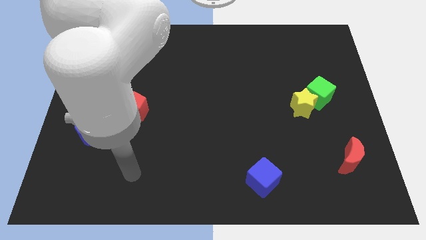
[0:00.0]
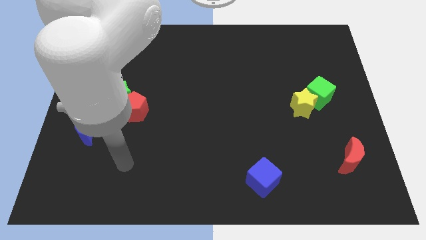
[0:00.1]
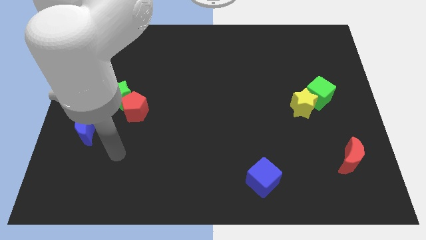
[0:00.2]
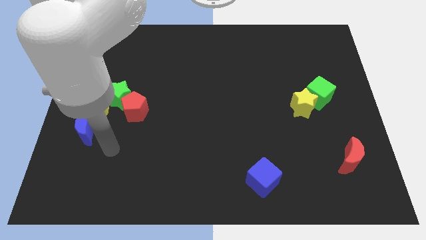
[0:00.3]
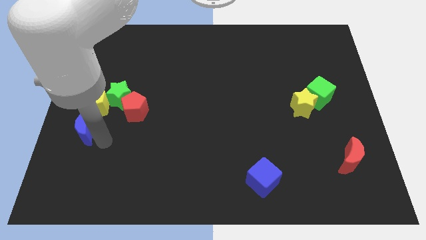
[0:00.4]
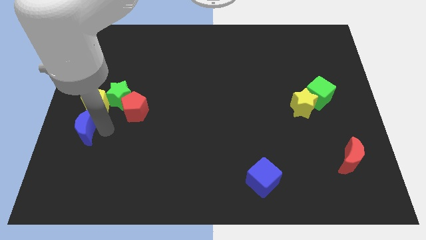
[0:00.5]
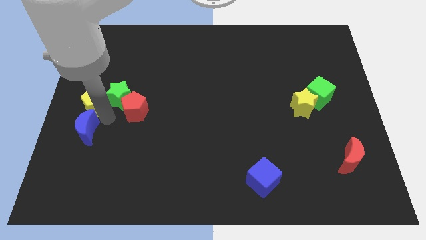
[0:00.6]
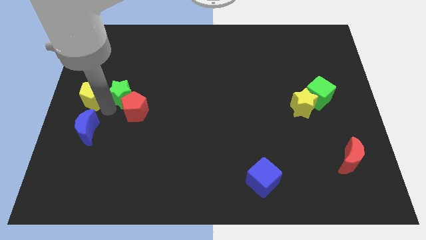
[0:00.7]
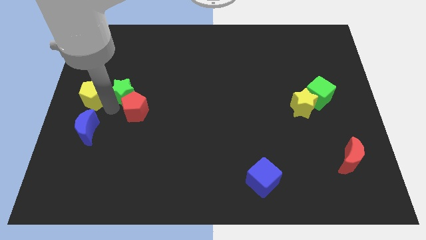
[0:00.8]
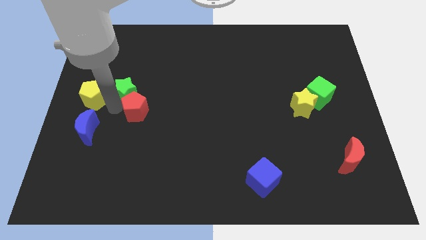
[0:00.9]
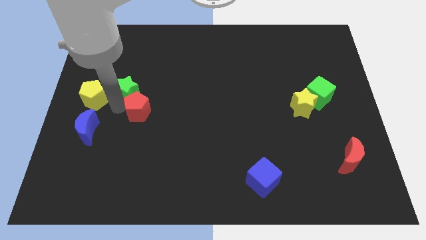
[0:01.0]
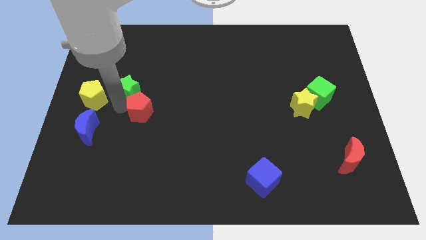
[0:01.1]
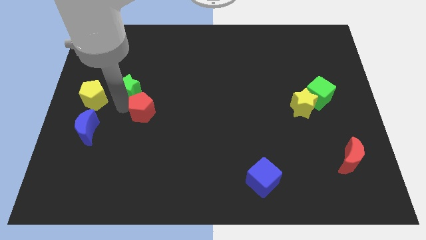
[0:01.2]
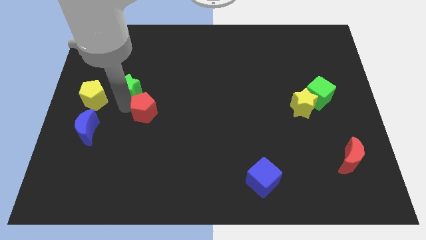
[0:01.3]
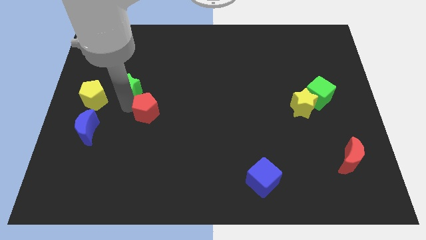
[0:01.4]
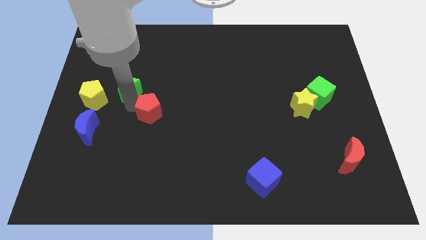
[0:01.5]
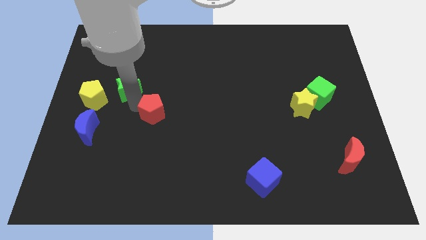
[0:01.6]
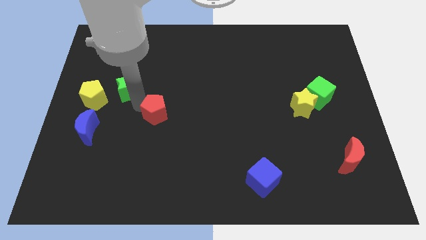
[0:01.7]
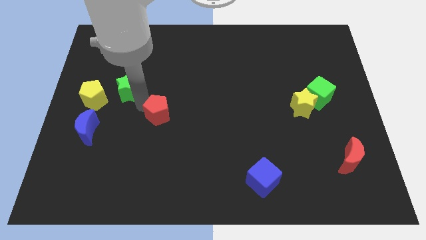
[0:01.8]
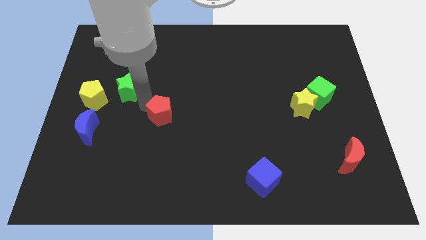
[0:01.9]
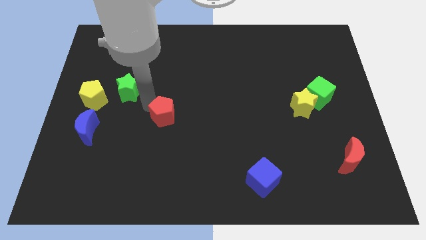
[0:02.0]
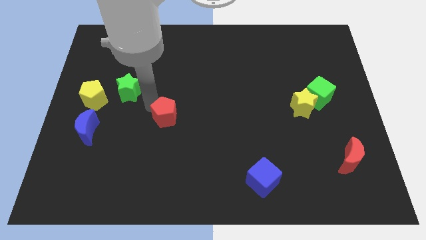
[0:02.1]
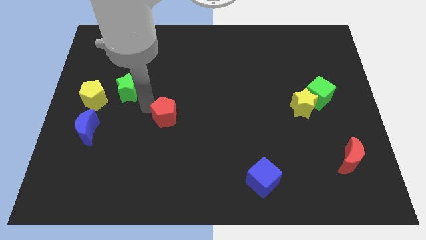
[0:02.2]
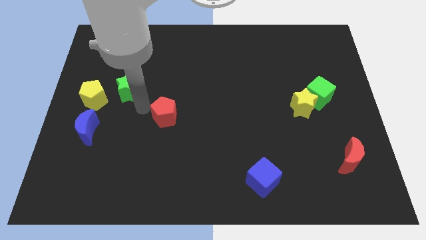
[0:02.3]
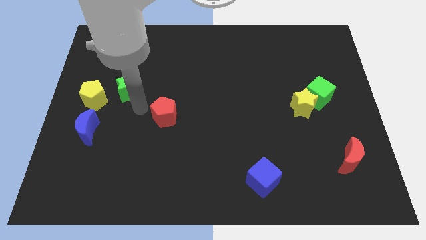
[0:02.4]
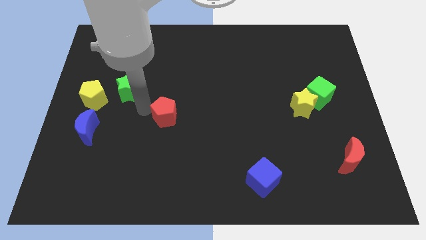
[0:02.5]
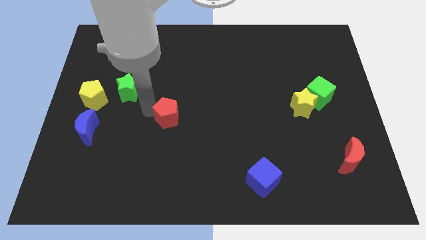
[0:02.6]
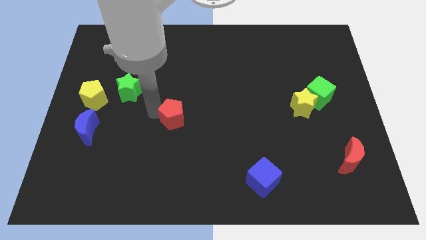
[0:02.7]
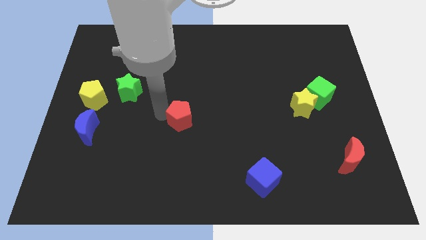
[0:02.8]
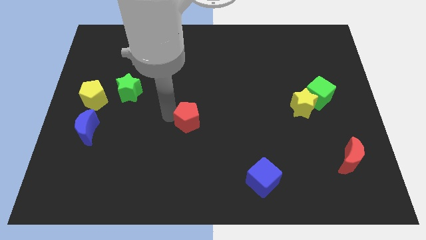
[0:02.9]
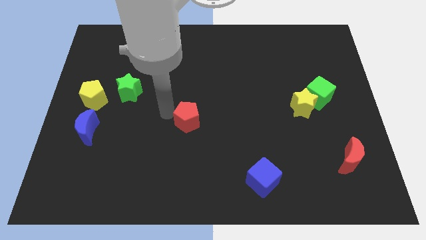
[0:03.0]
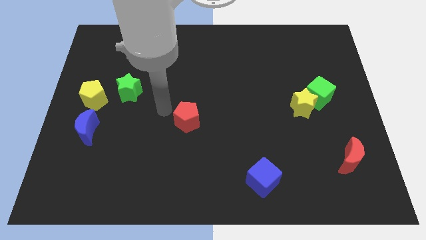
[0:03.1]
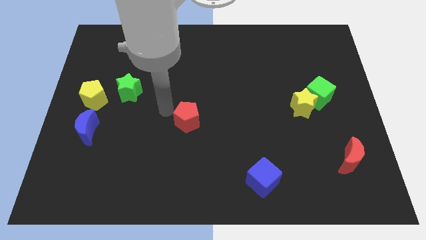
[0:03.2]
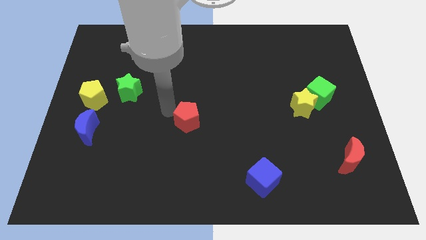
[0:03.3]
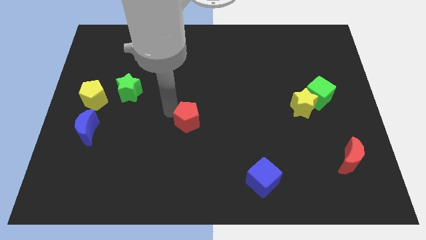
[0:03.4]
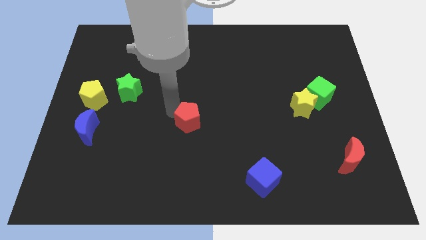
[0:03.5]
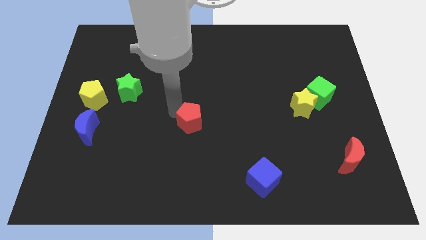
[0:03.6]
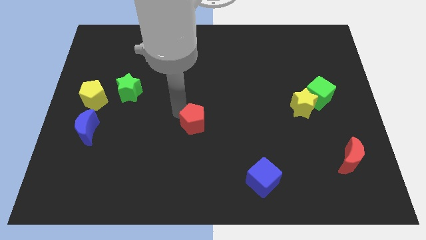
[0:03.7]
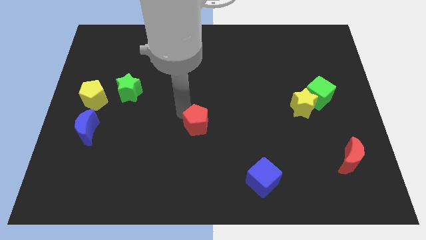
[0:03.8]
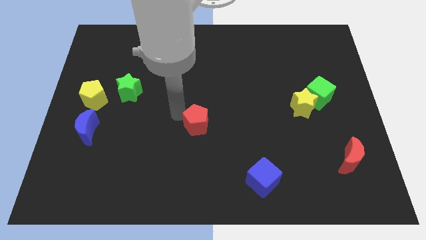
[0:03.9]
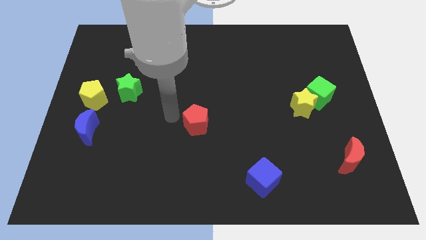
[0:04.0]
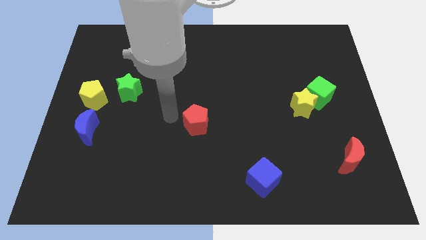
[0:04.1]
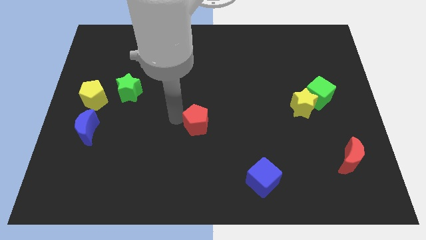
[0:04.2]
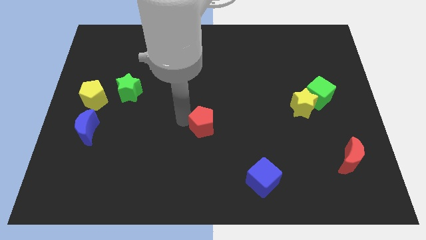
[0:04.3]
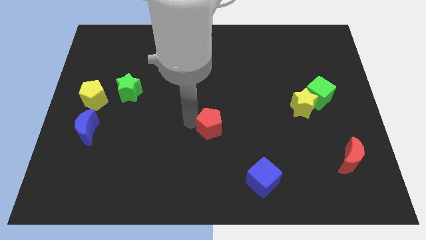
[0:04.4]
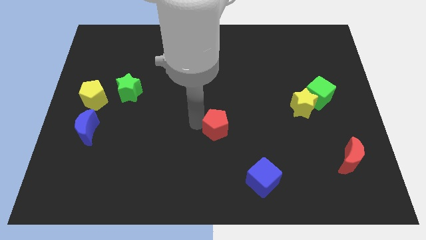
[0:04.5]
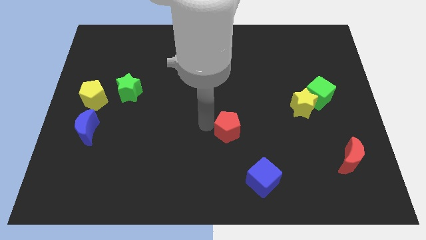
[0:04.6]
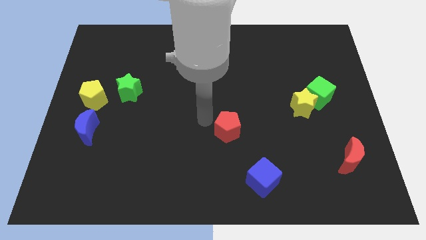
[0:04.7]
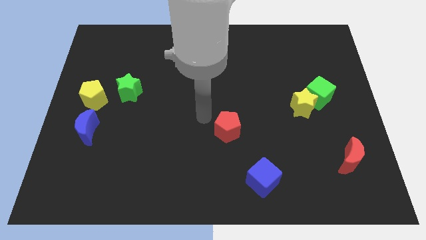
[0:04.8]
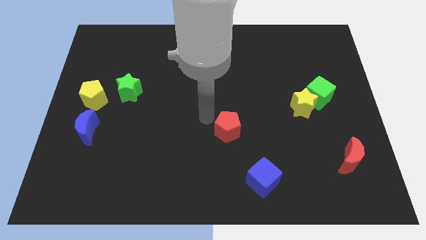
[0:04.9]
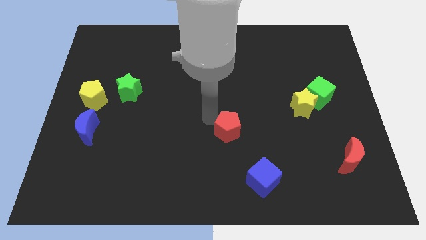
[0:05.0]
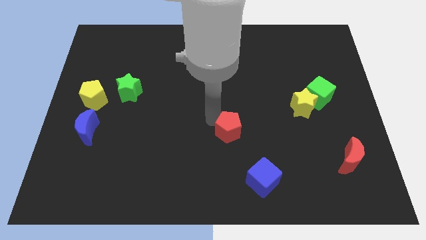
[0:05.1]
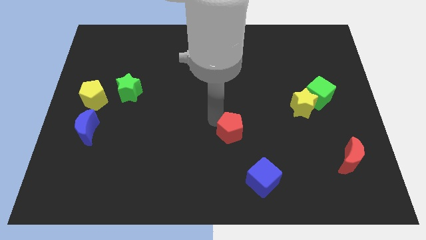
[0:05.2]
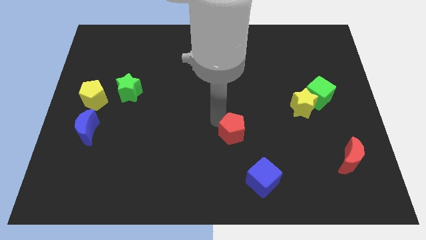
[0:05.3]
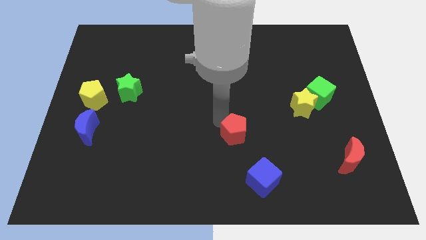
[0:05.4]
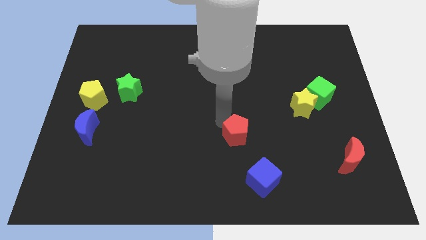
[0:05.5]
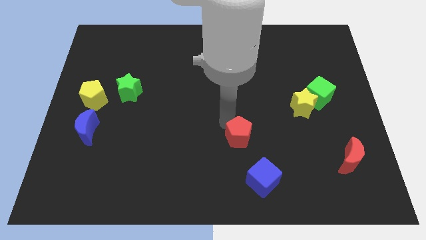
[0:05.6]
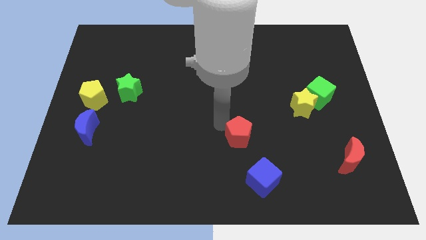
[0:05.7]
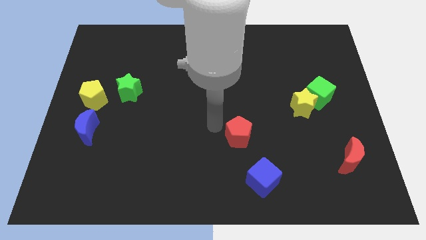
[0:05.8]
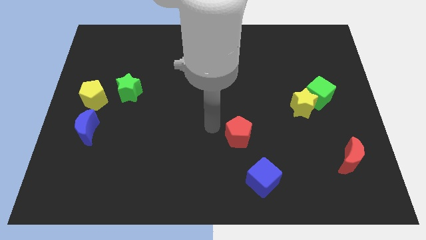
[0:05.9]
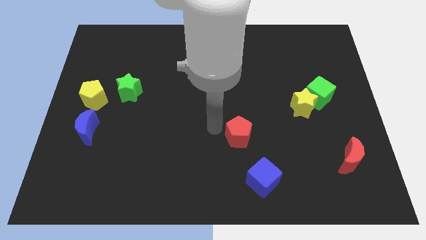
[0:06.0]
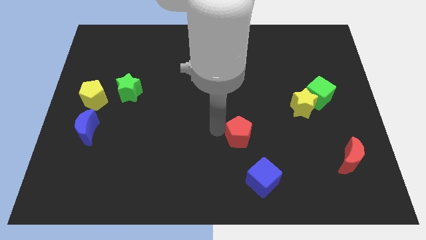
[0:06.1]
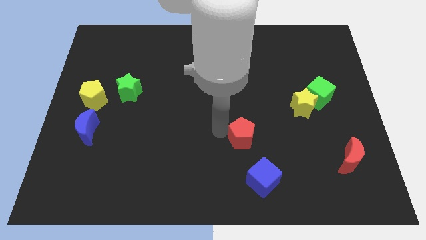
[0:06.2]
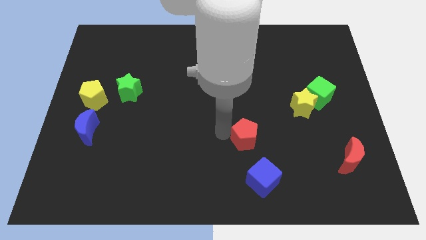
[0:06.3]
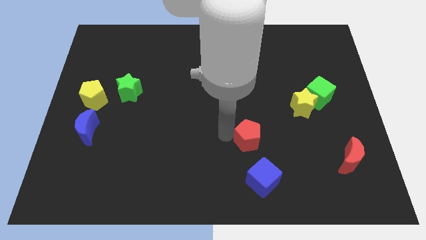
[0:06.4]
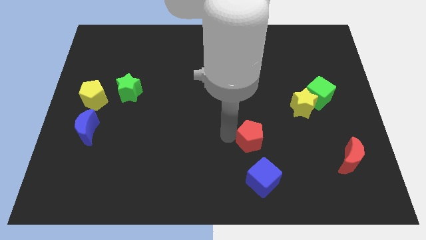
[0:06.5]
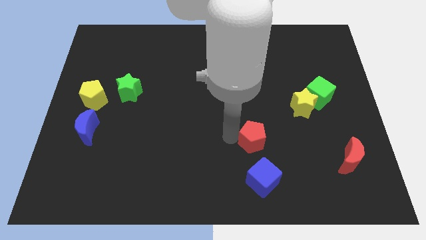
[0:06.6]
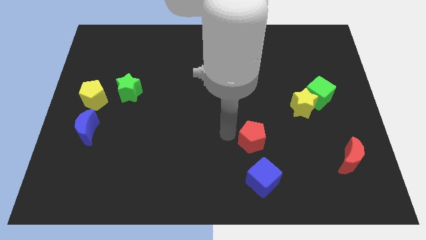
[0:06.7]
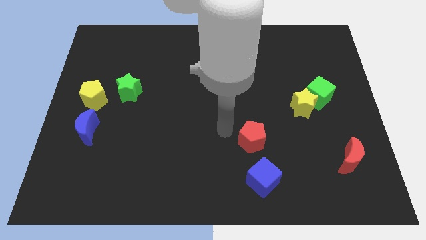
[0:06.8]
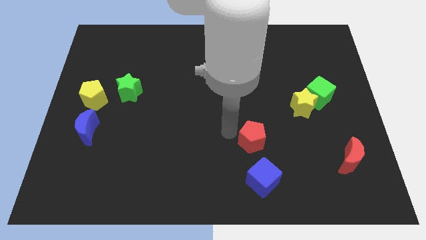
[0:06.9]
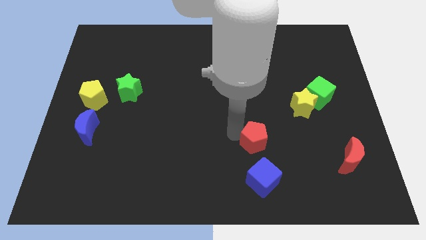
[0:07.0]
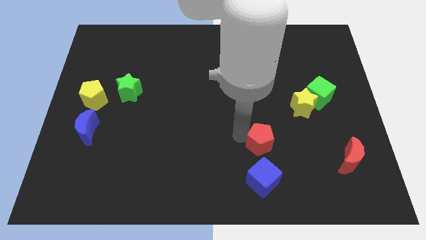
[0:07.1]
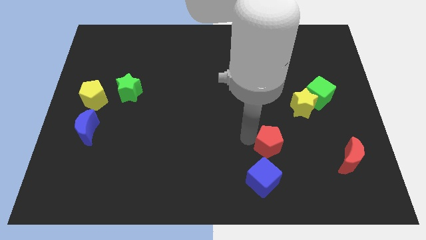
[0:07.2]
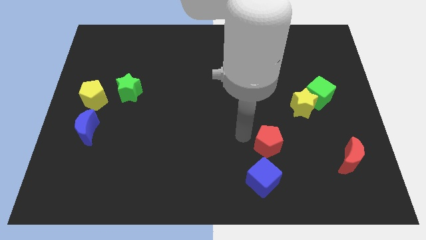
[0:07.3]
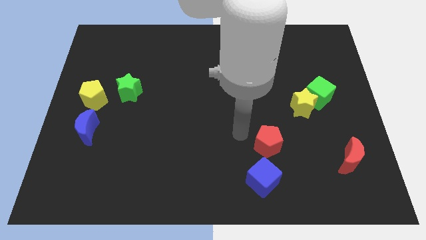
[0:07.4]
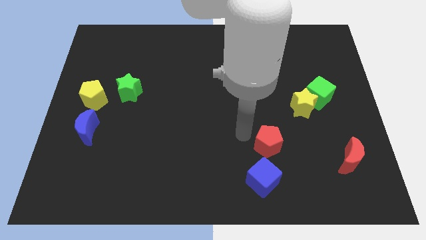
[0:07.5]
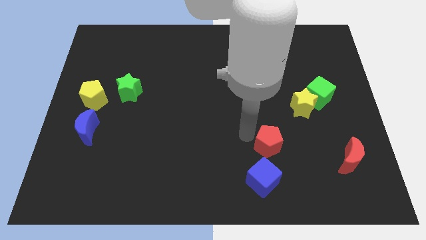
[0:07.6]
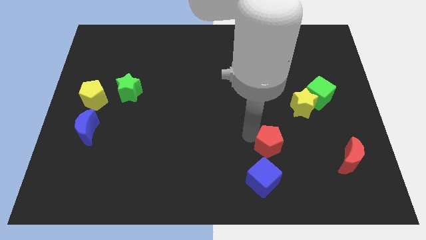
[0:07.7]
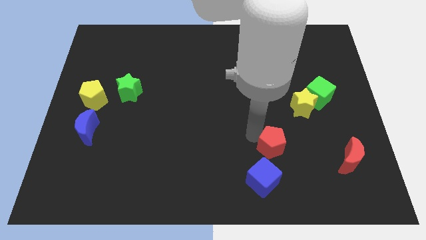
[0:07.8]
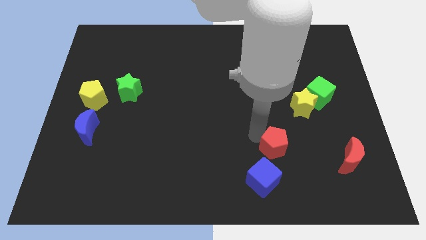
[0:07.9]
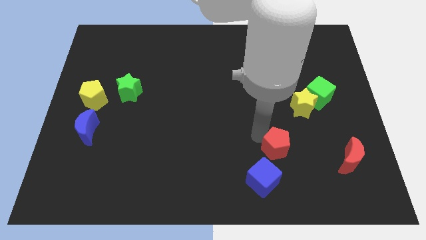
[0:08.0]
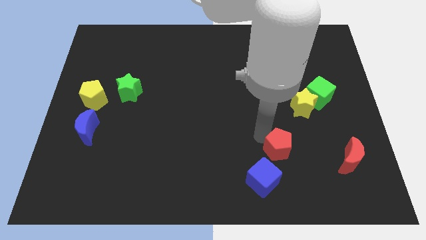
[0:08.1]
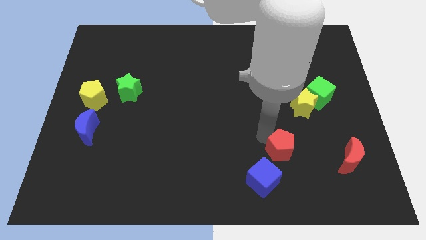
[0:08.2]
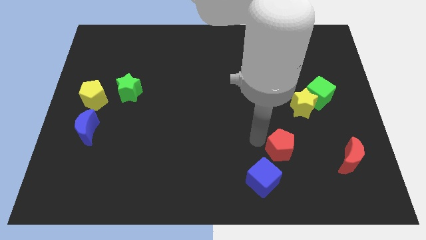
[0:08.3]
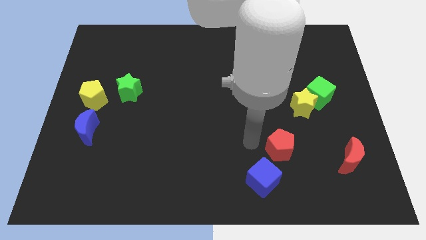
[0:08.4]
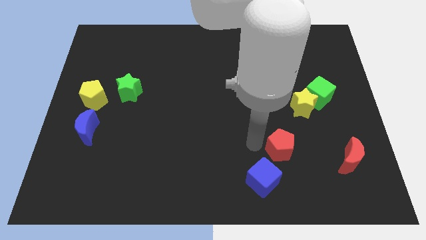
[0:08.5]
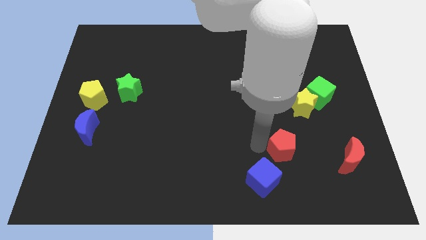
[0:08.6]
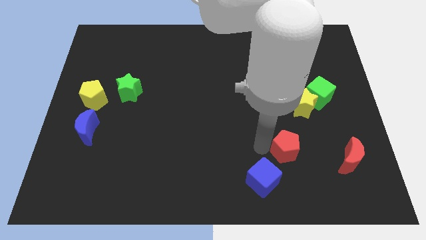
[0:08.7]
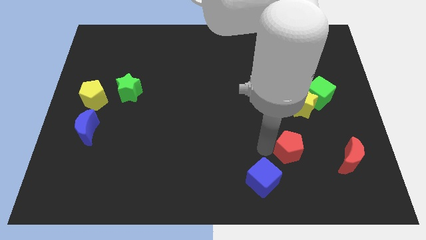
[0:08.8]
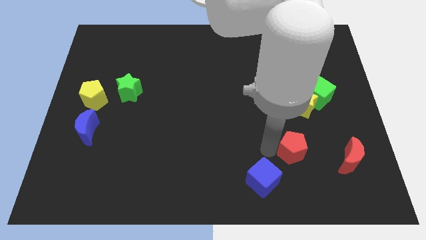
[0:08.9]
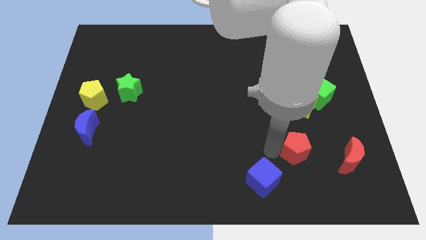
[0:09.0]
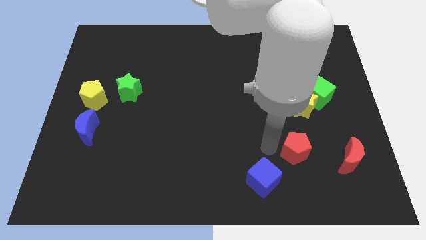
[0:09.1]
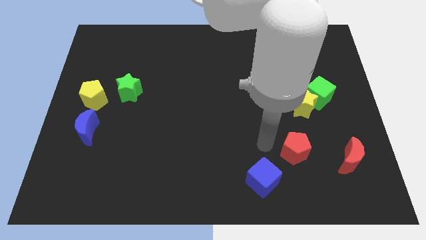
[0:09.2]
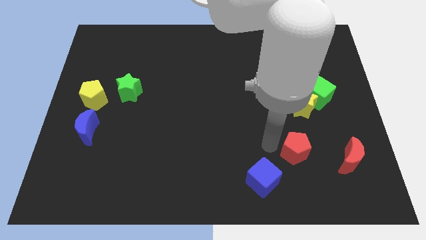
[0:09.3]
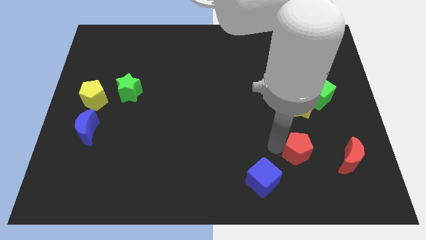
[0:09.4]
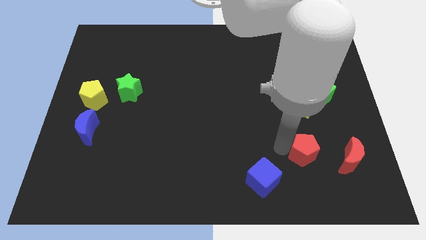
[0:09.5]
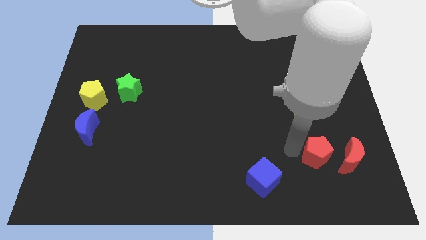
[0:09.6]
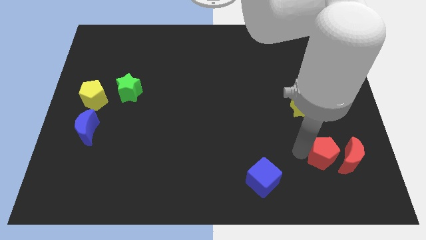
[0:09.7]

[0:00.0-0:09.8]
push the red pentagon close to the red moon
